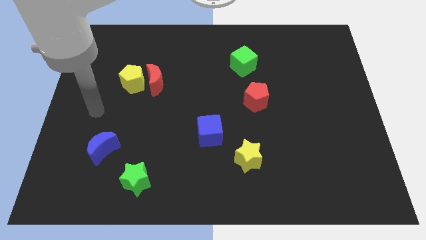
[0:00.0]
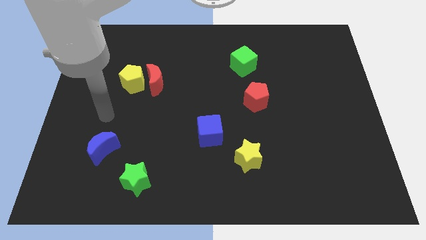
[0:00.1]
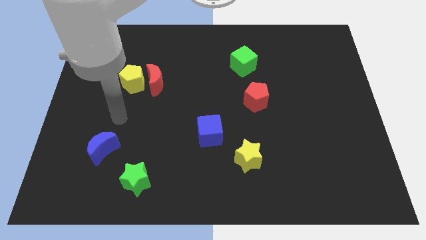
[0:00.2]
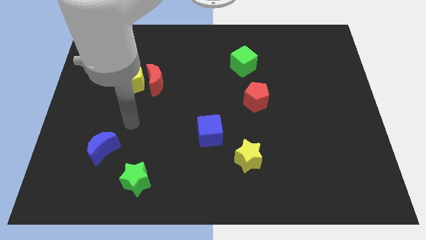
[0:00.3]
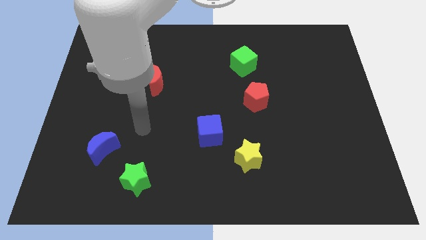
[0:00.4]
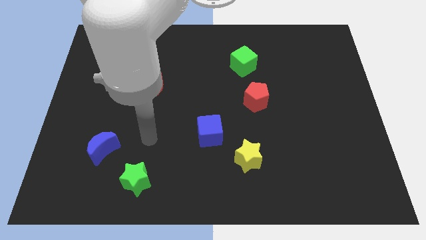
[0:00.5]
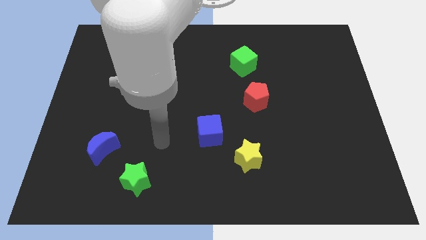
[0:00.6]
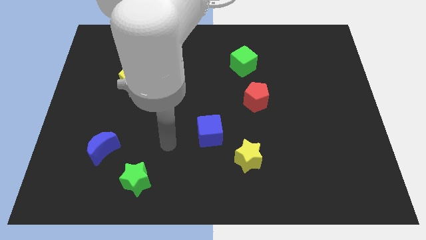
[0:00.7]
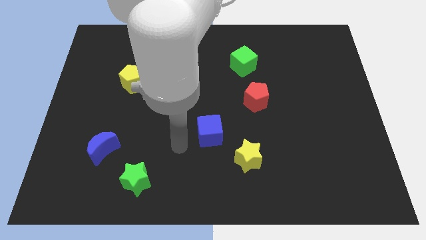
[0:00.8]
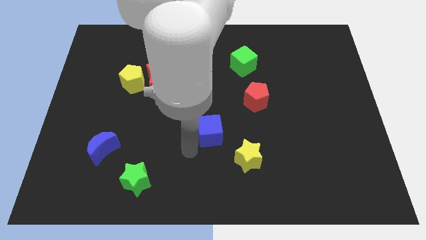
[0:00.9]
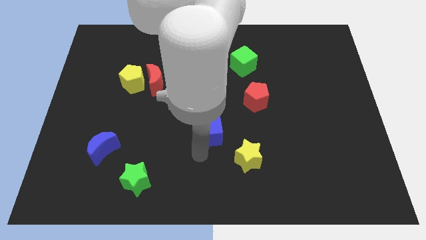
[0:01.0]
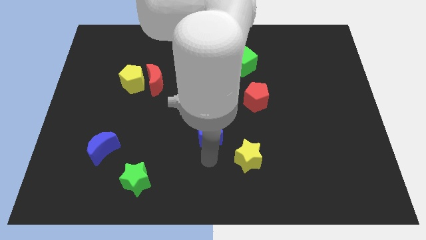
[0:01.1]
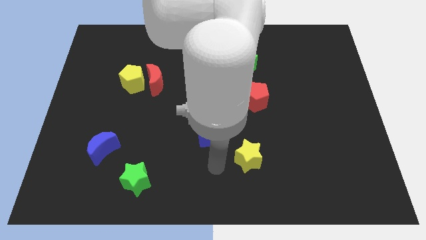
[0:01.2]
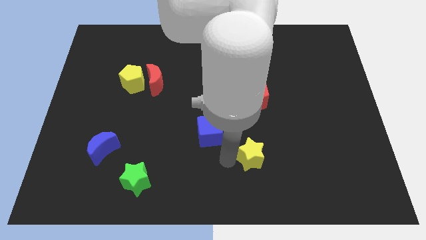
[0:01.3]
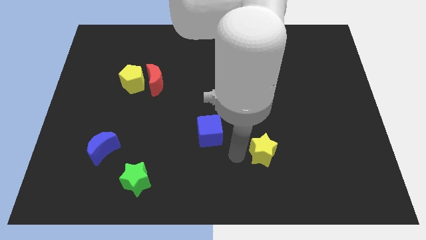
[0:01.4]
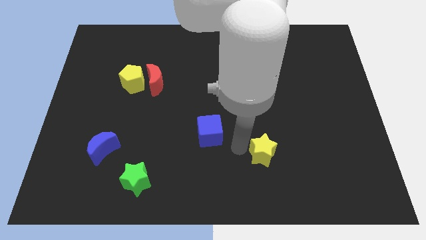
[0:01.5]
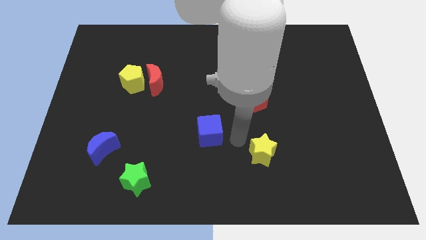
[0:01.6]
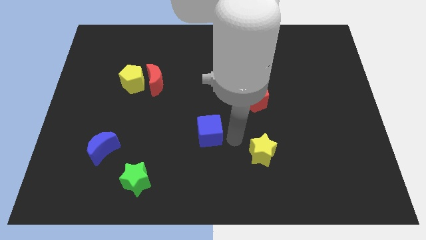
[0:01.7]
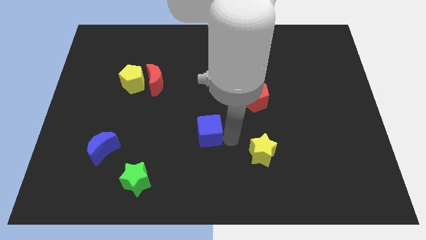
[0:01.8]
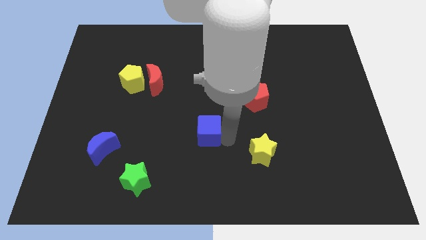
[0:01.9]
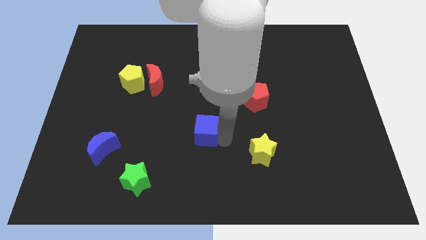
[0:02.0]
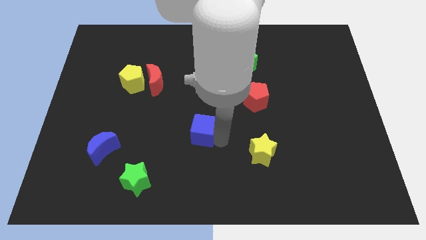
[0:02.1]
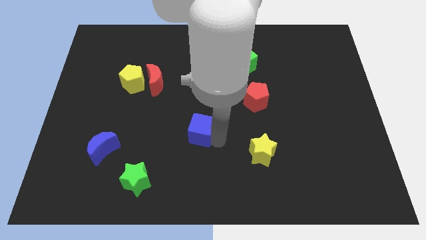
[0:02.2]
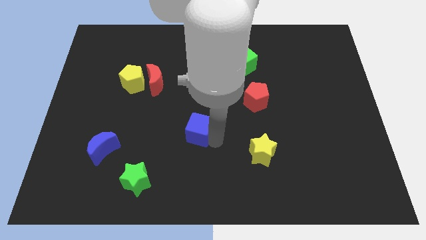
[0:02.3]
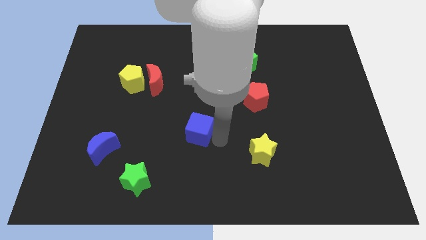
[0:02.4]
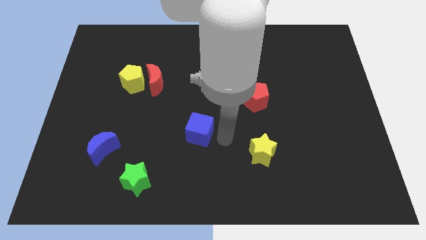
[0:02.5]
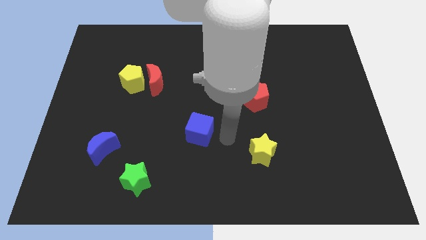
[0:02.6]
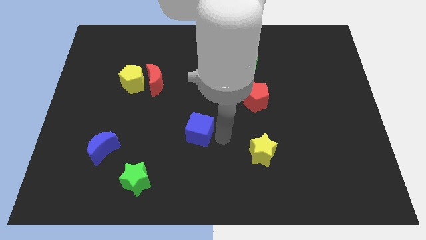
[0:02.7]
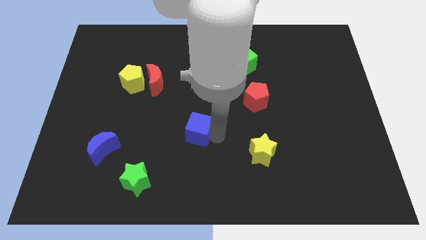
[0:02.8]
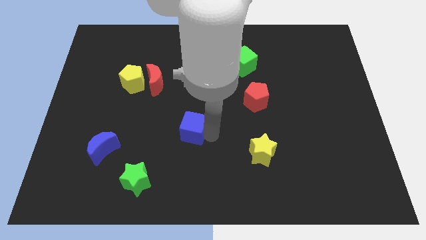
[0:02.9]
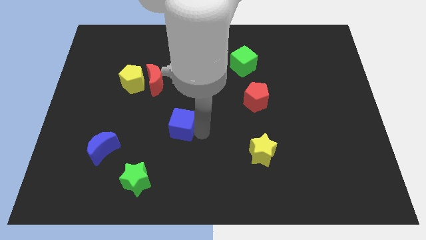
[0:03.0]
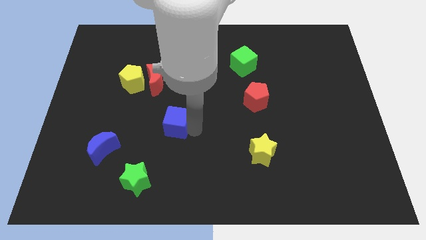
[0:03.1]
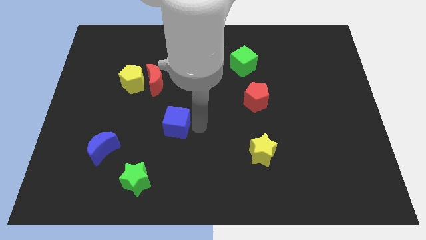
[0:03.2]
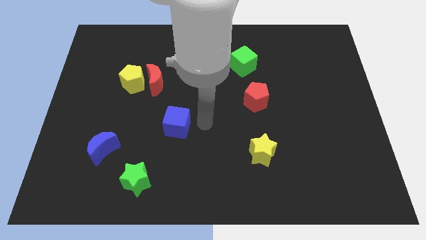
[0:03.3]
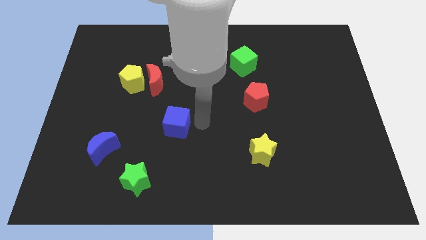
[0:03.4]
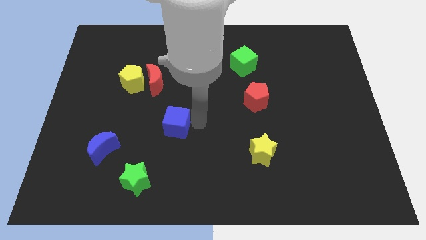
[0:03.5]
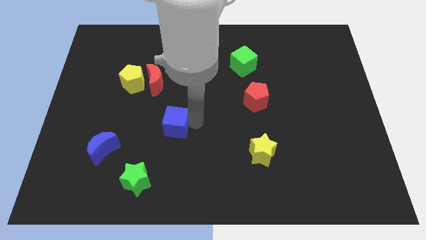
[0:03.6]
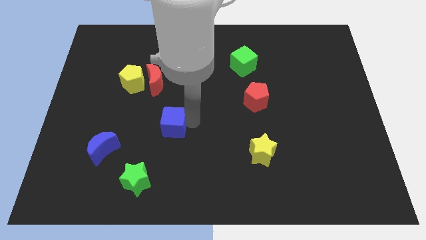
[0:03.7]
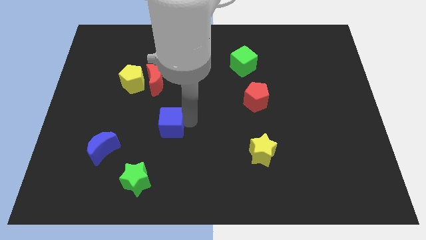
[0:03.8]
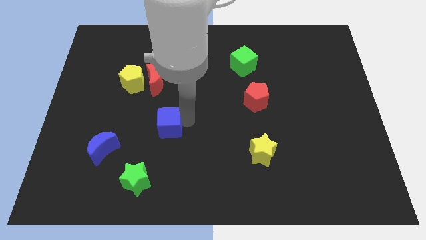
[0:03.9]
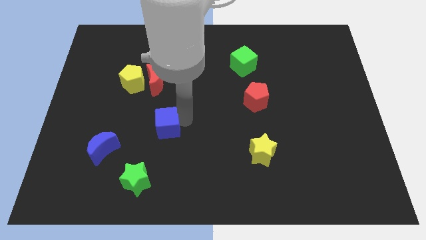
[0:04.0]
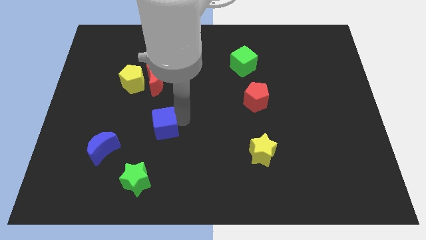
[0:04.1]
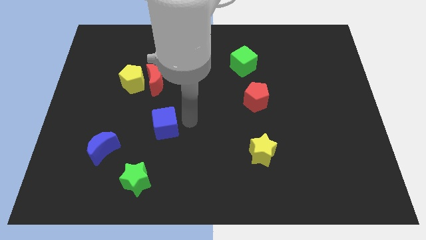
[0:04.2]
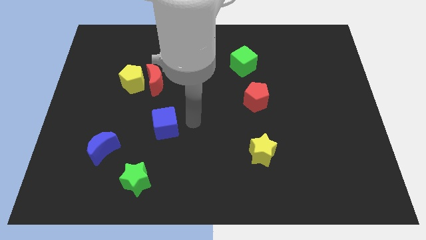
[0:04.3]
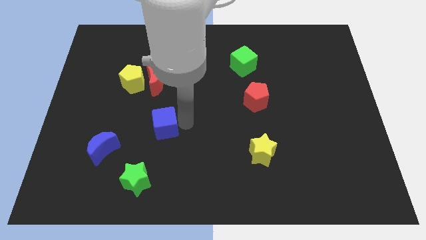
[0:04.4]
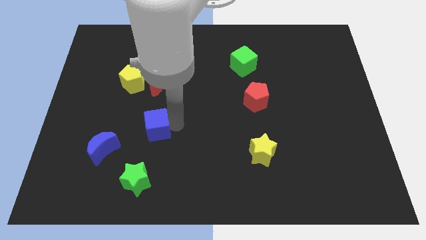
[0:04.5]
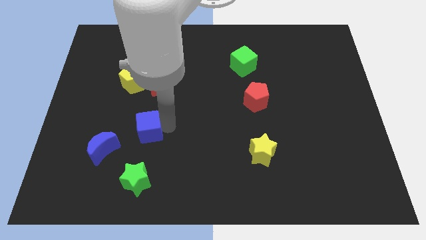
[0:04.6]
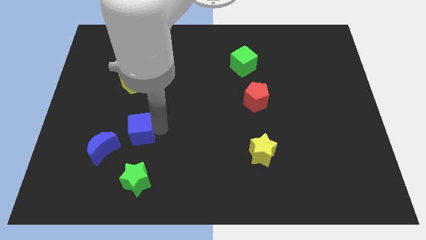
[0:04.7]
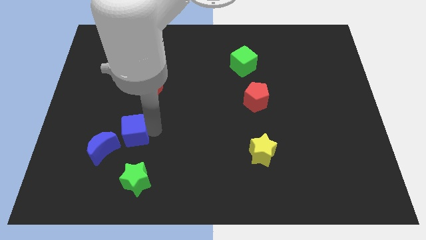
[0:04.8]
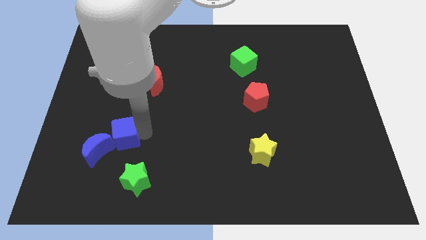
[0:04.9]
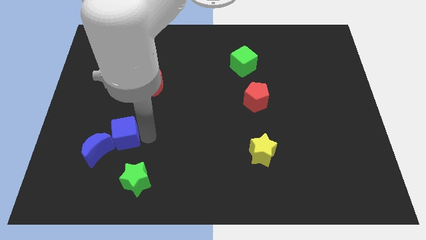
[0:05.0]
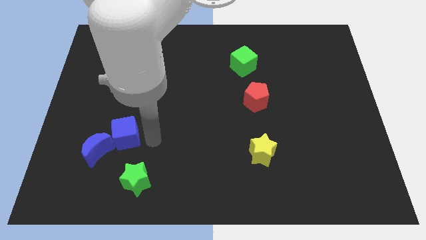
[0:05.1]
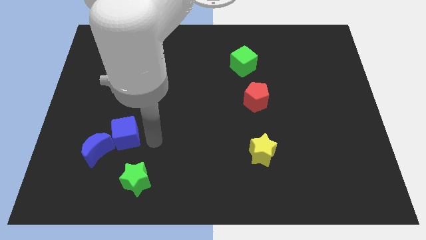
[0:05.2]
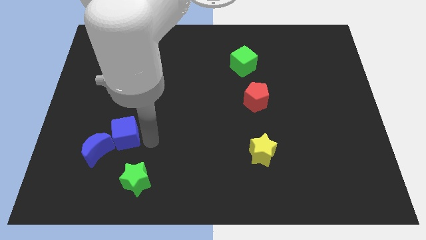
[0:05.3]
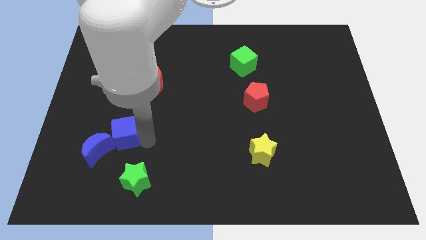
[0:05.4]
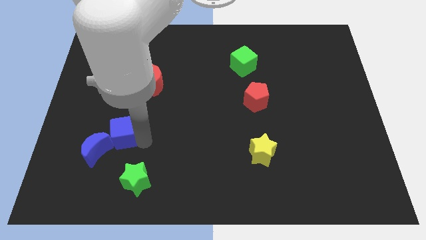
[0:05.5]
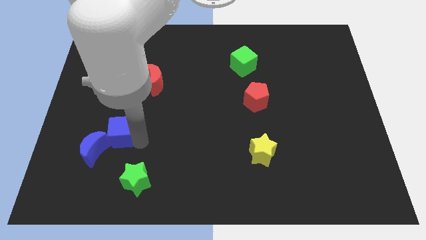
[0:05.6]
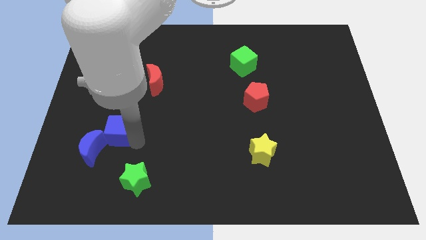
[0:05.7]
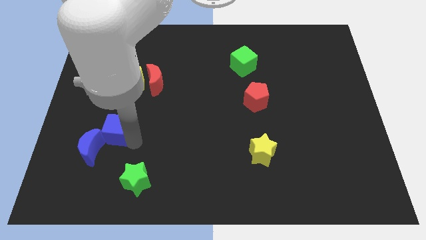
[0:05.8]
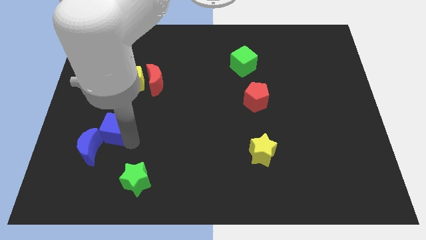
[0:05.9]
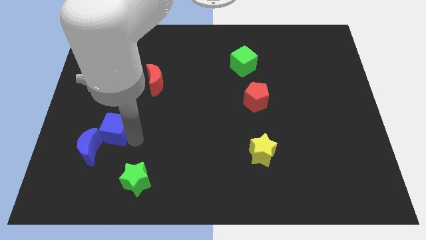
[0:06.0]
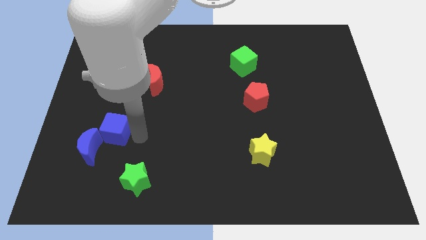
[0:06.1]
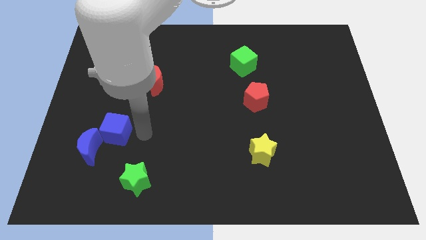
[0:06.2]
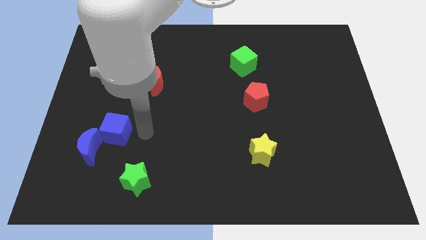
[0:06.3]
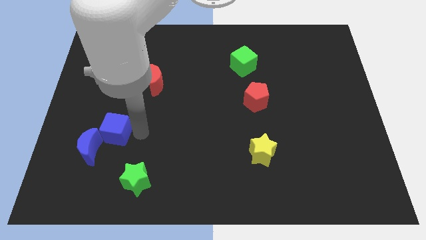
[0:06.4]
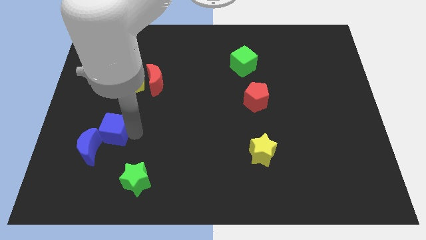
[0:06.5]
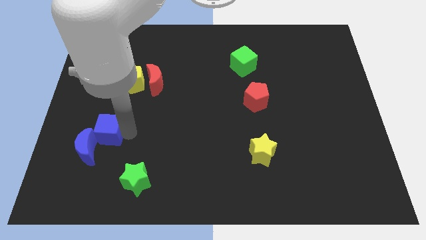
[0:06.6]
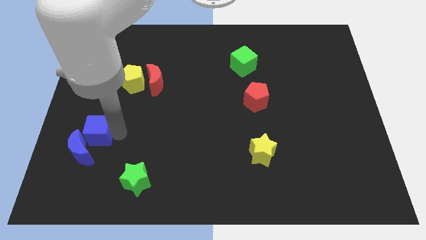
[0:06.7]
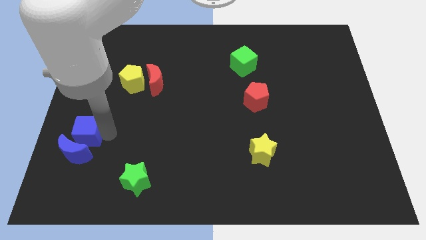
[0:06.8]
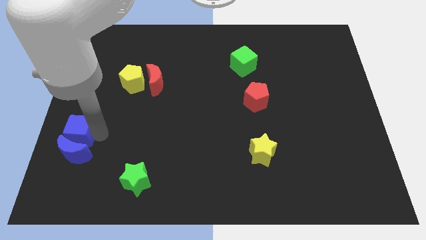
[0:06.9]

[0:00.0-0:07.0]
move the blue cube to the top left side of the blue moon
